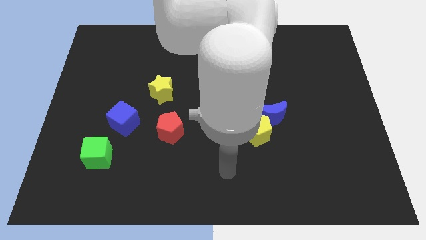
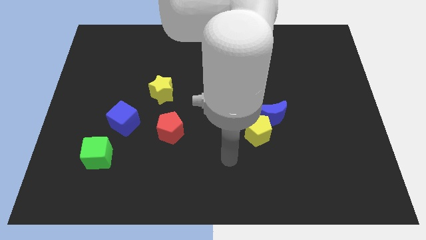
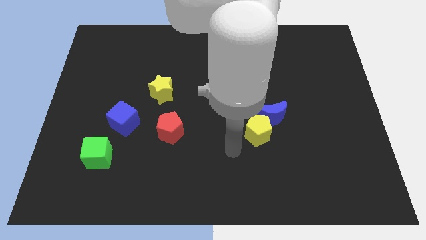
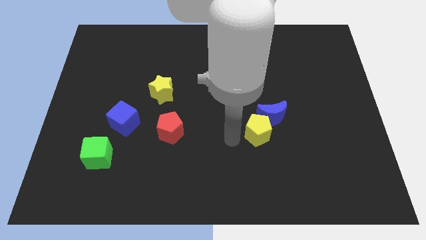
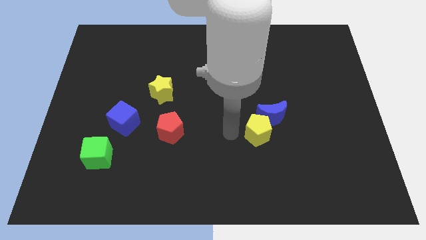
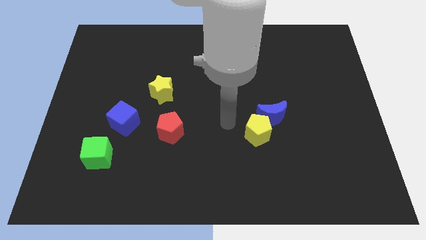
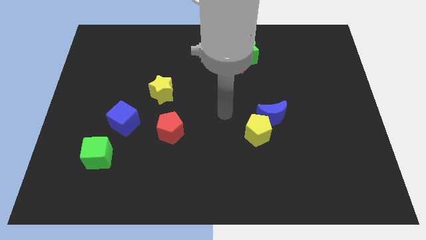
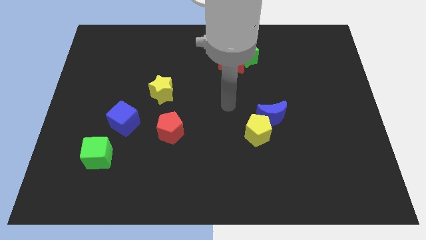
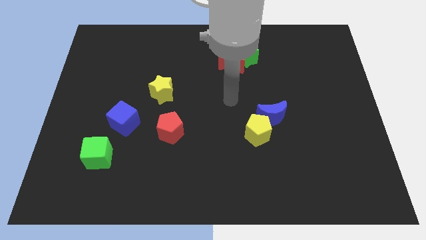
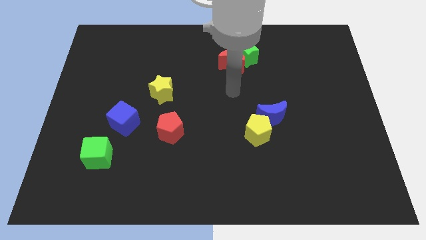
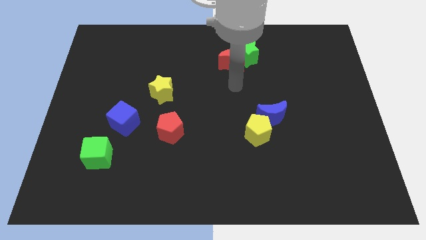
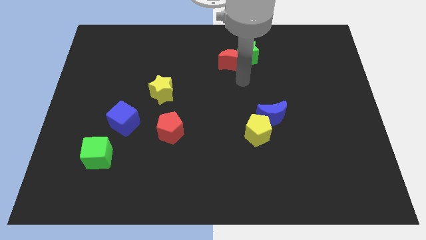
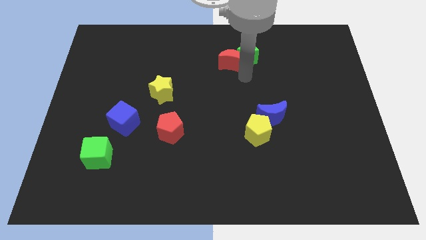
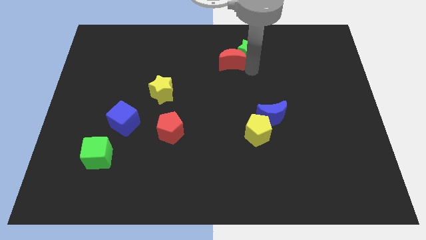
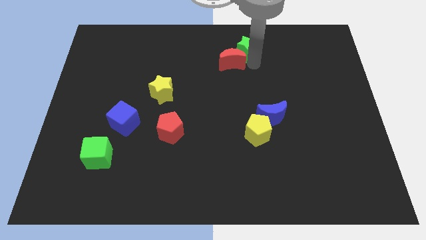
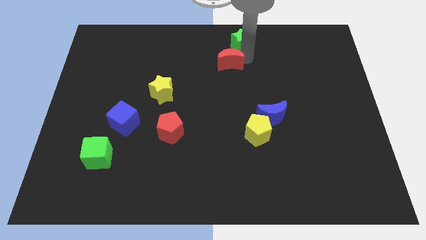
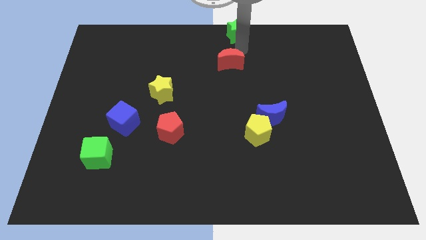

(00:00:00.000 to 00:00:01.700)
pull the red moon apart from the green star

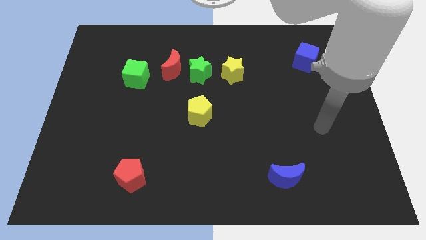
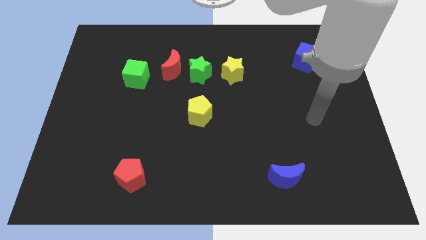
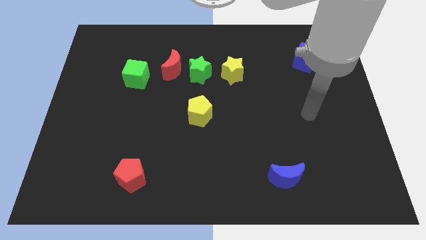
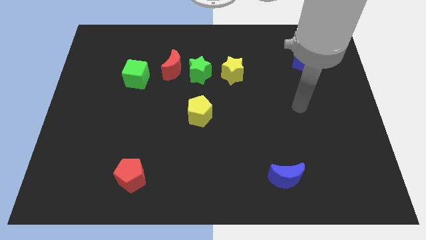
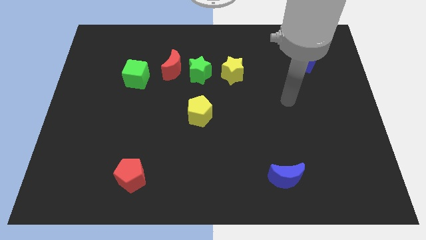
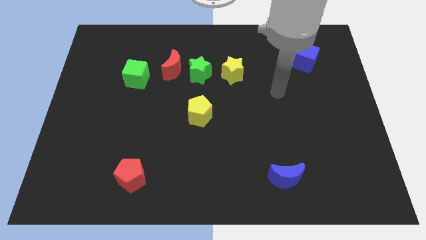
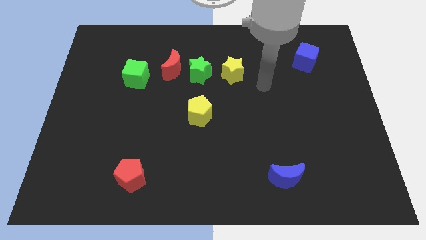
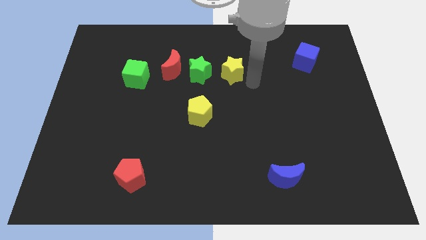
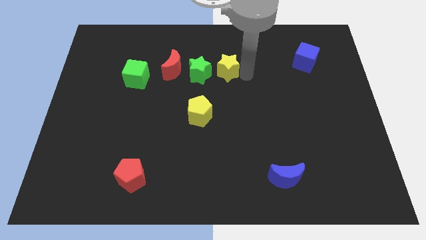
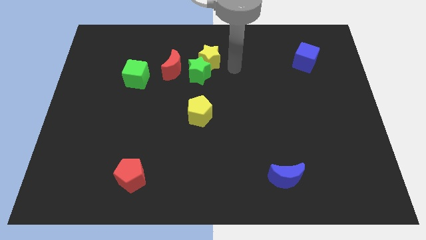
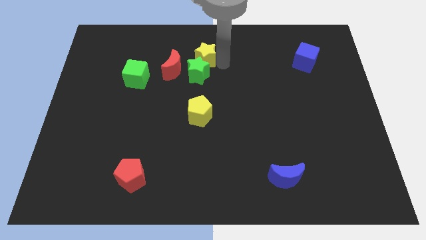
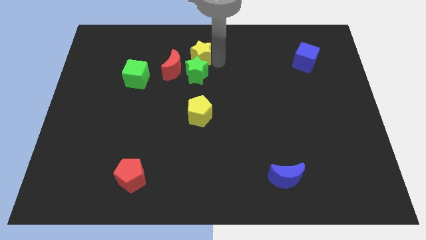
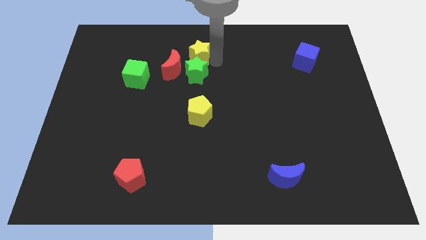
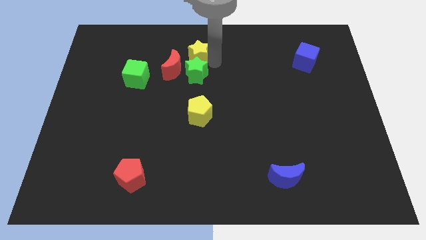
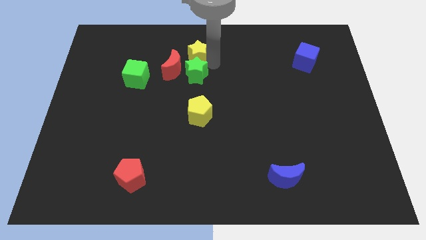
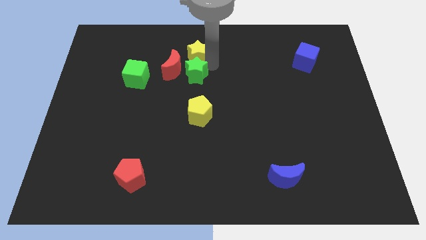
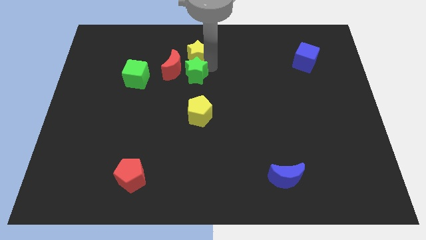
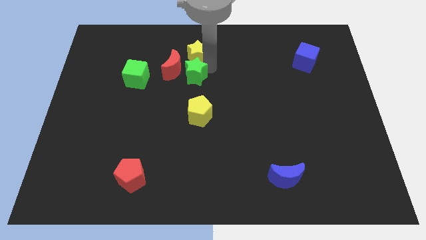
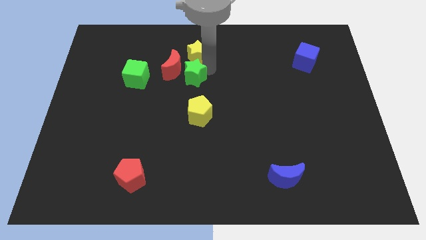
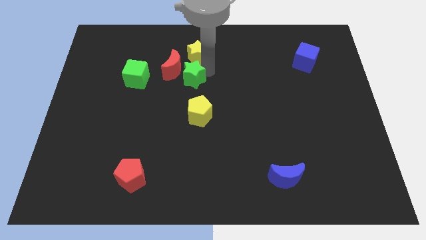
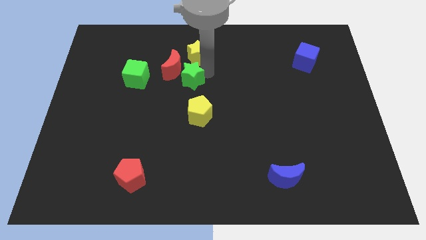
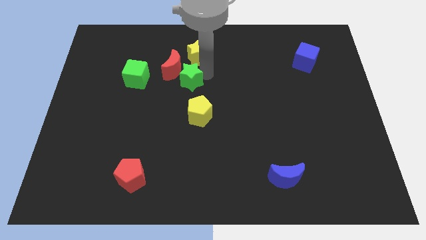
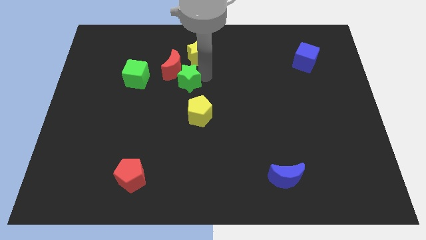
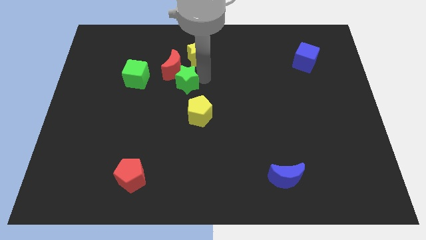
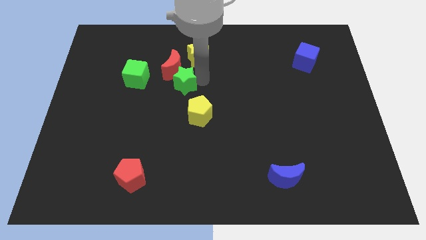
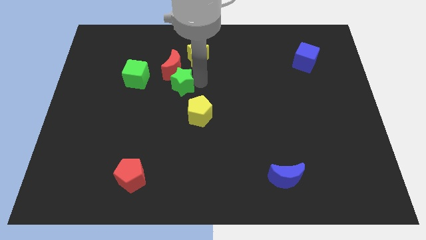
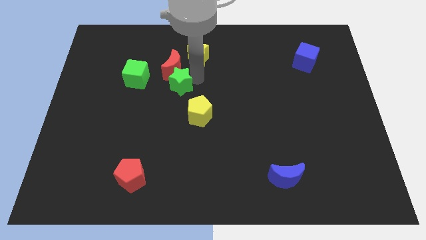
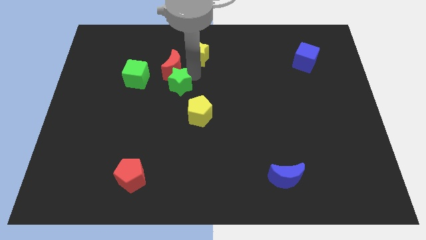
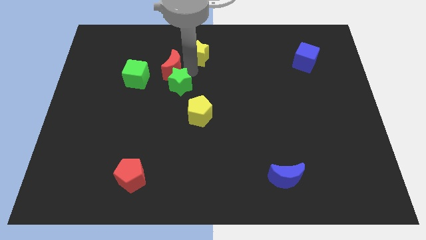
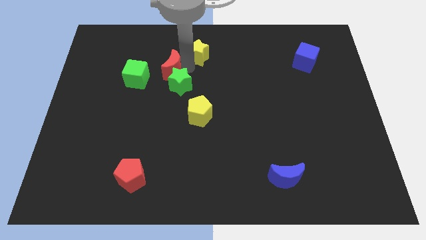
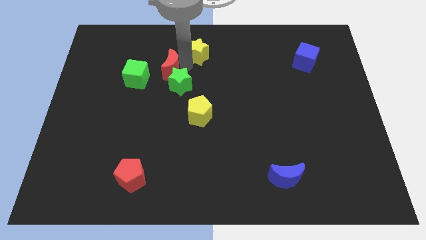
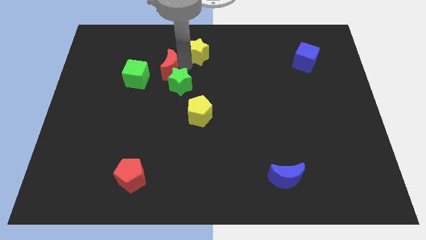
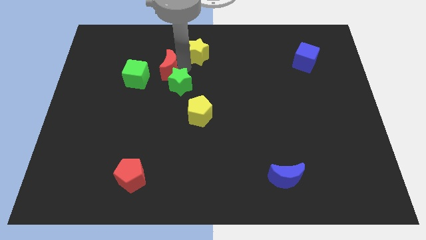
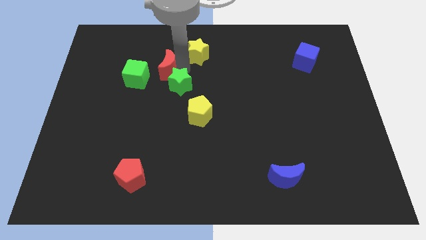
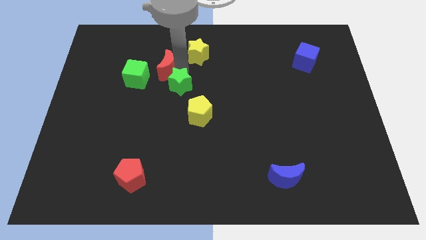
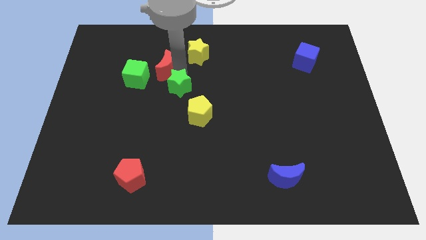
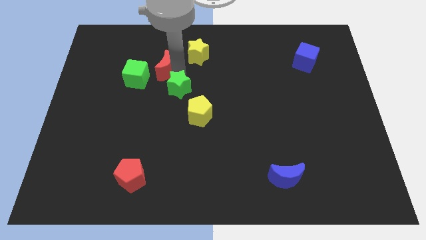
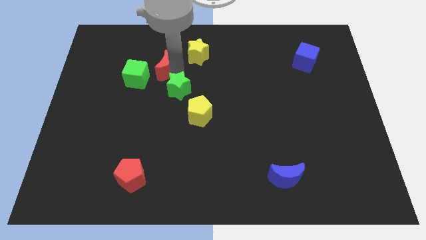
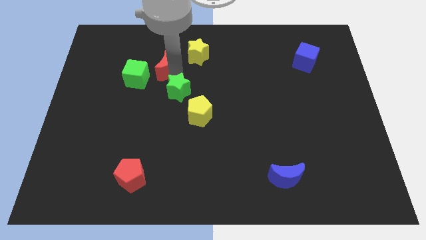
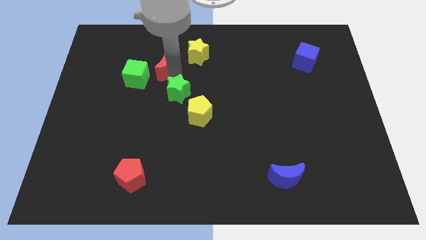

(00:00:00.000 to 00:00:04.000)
separate the green star from the red moon and yellow star

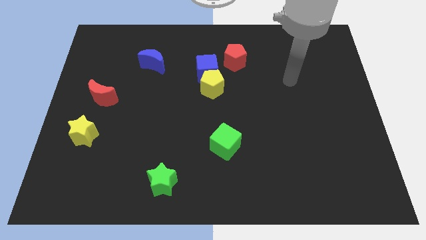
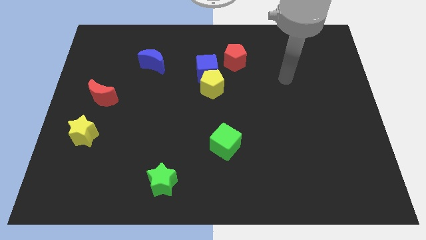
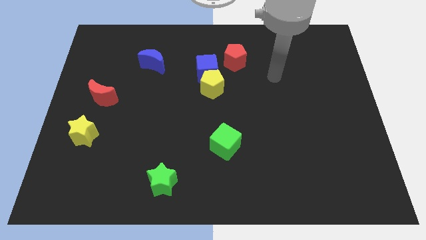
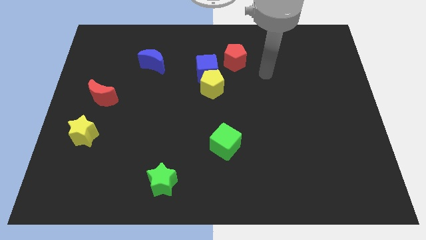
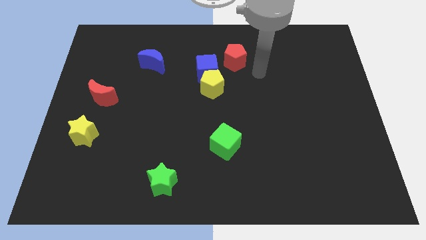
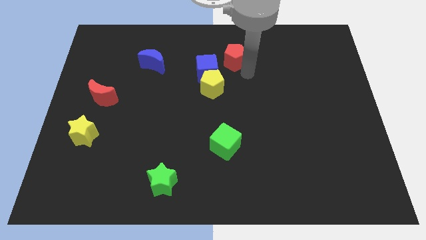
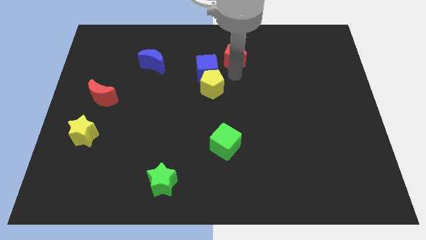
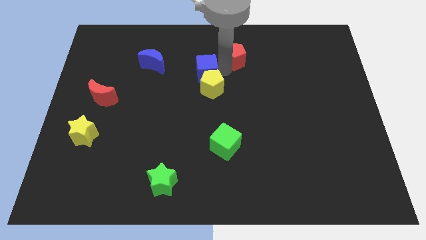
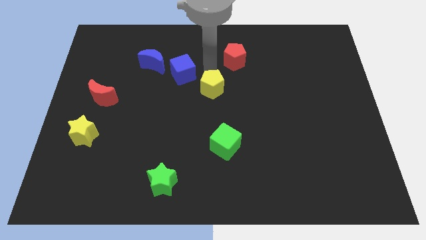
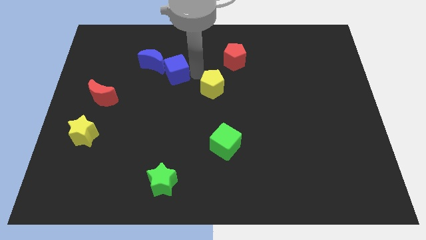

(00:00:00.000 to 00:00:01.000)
move the yellow pentagon away from the blue cube

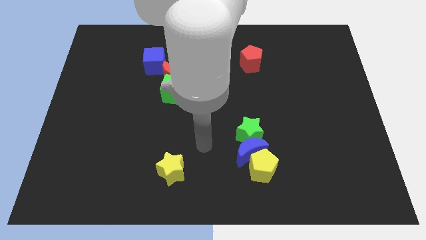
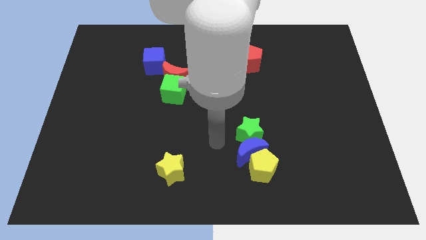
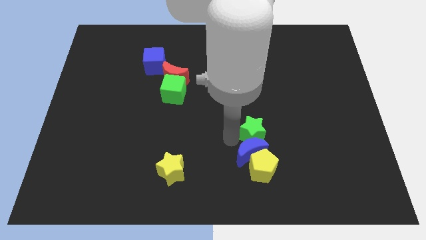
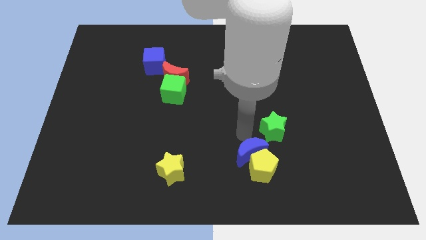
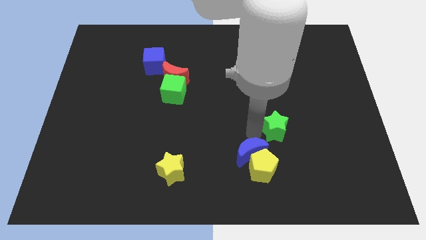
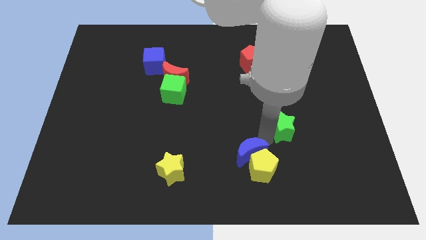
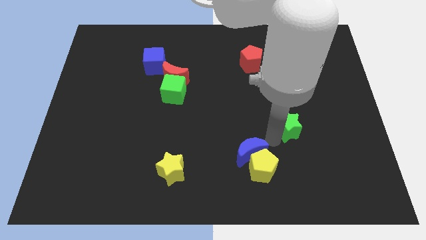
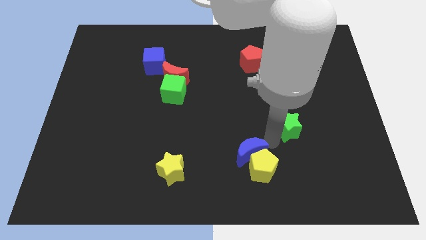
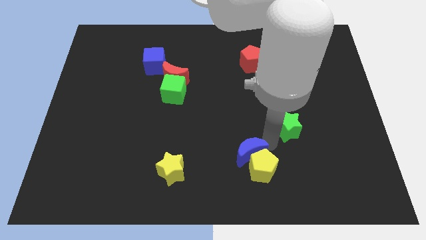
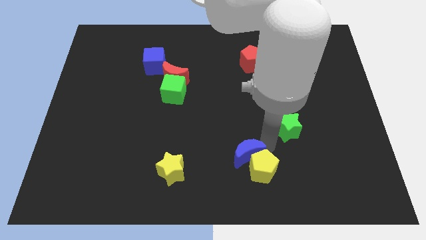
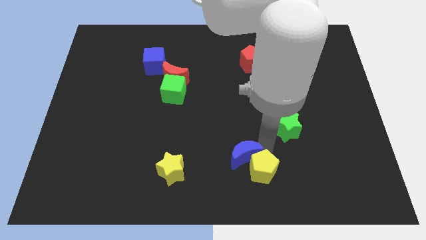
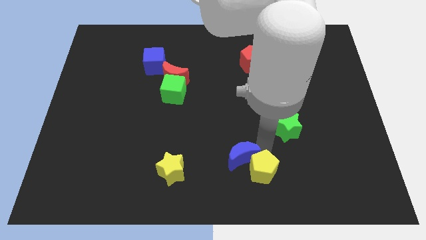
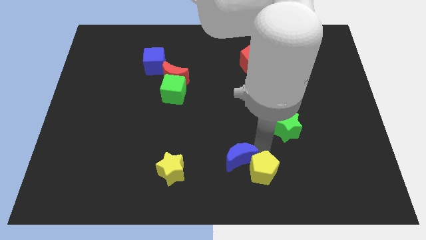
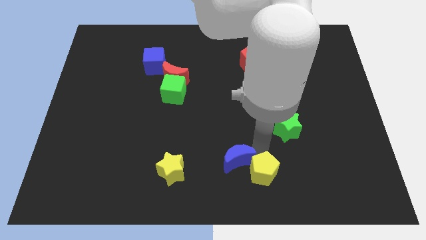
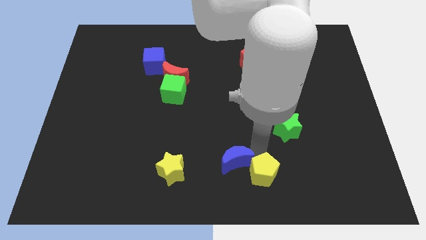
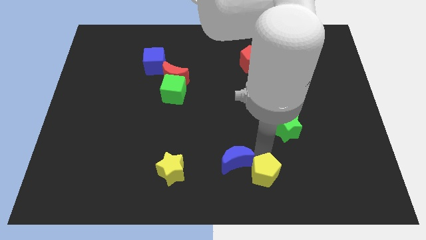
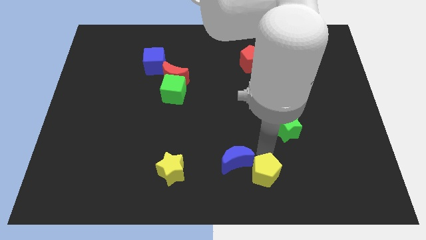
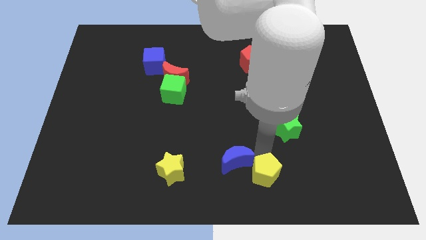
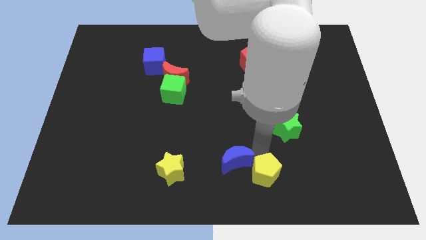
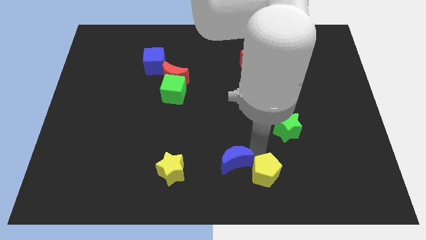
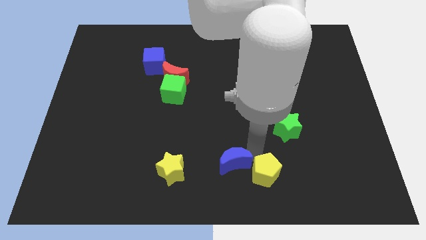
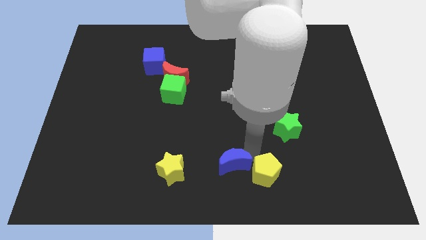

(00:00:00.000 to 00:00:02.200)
pull the blue moon apart from the yellow pentagon and green star

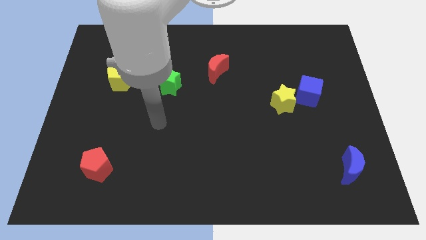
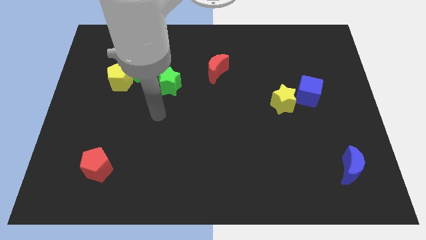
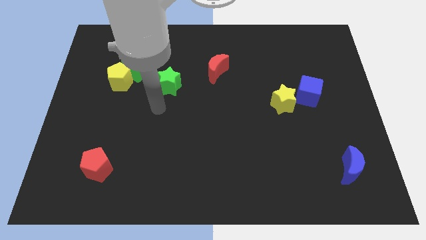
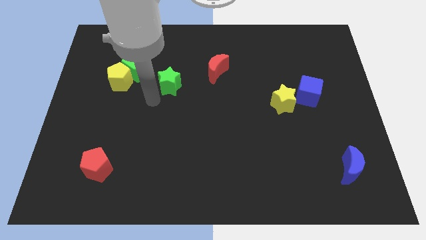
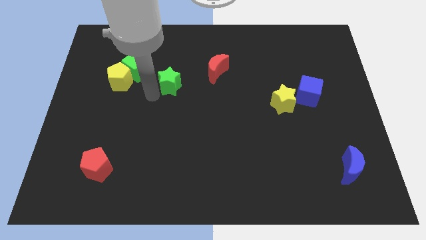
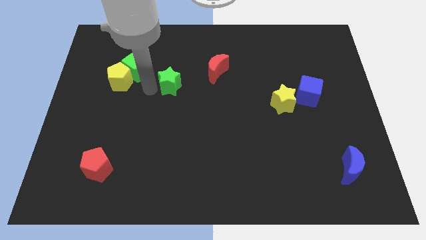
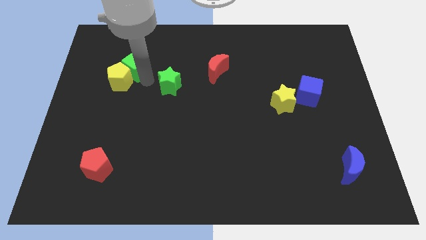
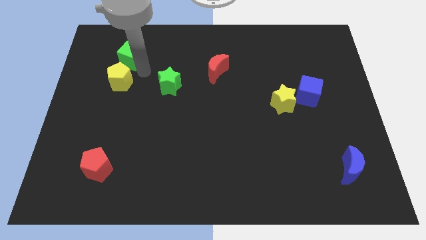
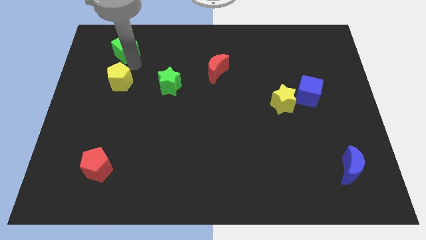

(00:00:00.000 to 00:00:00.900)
pull the yellow pentagon apart from the green cube
